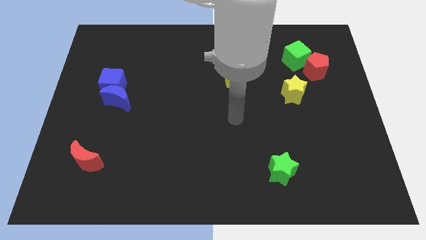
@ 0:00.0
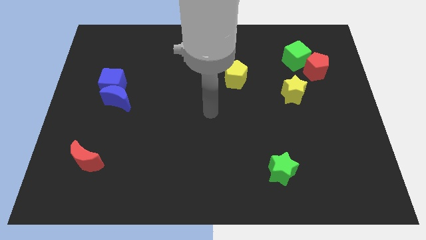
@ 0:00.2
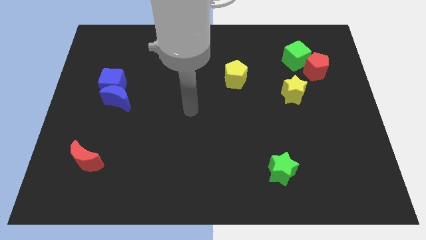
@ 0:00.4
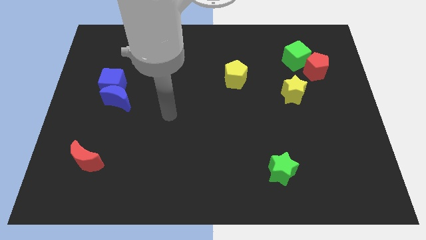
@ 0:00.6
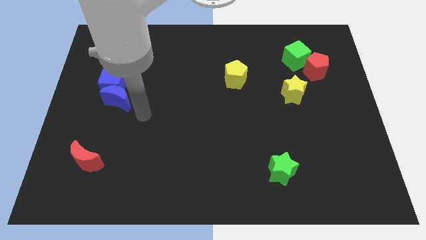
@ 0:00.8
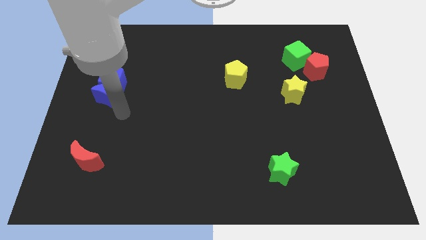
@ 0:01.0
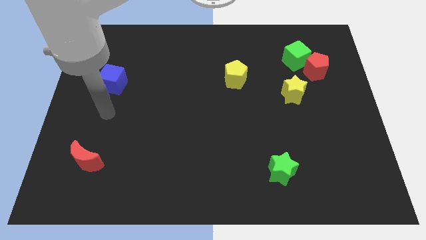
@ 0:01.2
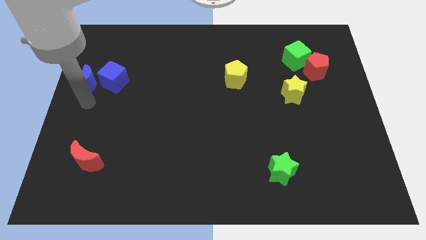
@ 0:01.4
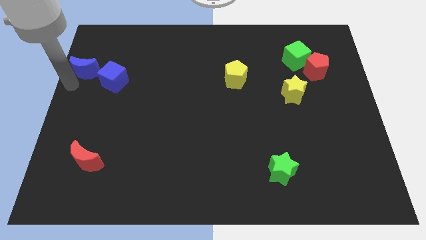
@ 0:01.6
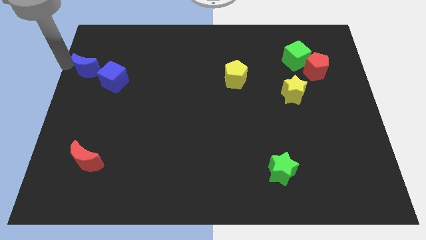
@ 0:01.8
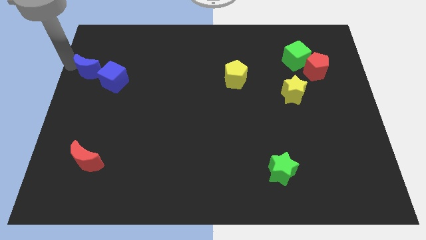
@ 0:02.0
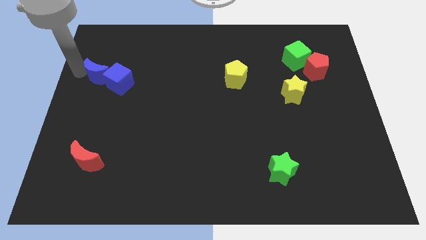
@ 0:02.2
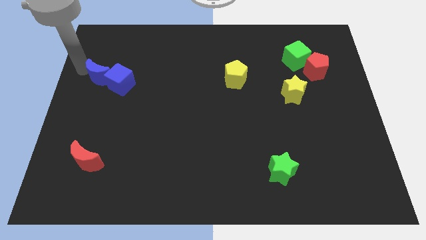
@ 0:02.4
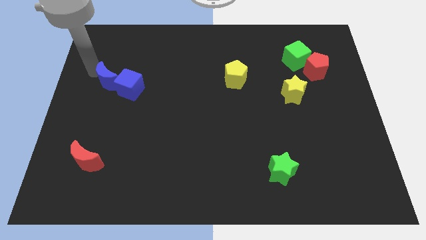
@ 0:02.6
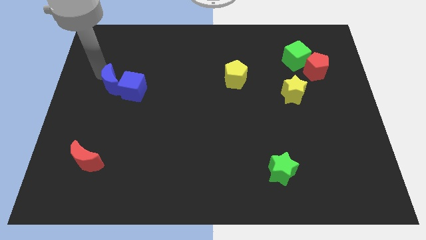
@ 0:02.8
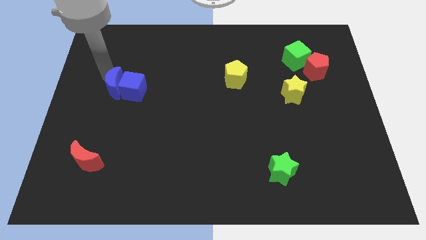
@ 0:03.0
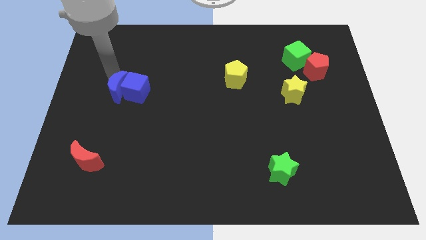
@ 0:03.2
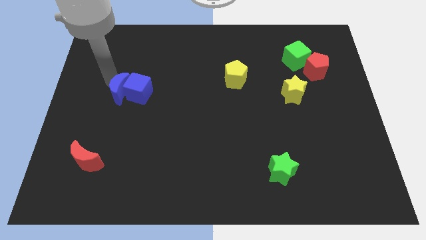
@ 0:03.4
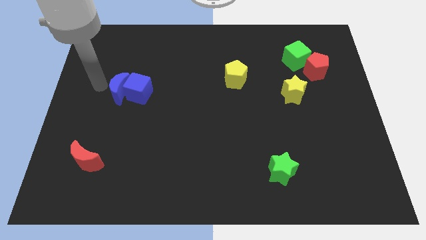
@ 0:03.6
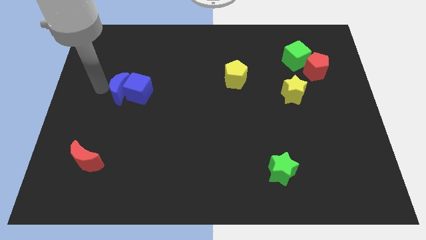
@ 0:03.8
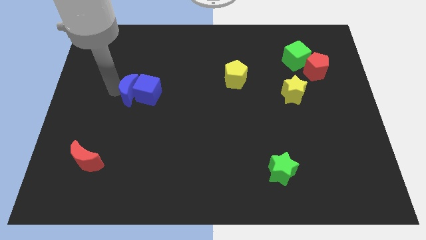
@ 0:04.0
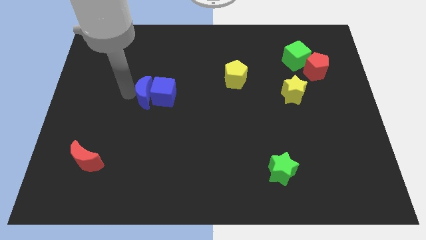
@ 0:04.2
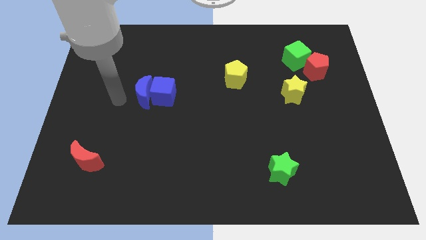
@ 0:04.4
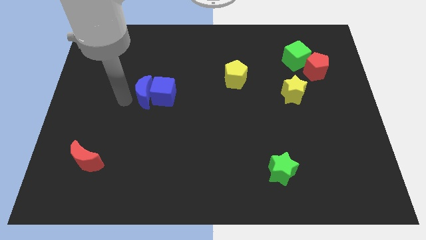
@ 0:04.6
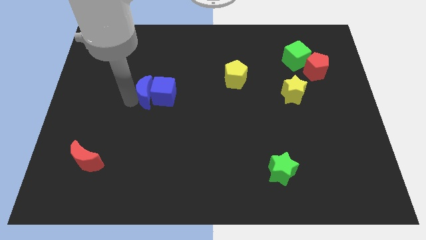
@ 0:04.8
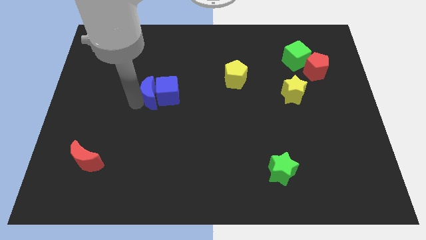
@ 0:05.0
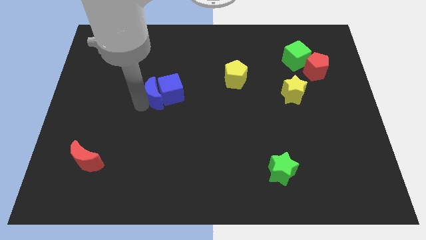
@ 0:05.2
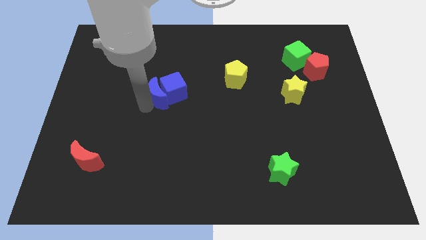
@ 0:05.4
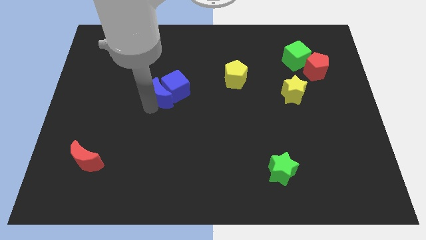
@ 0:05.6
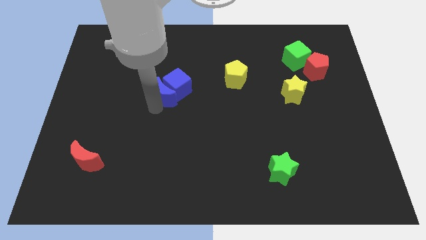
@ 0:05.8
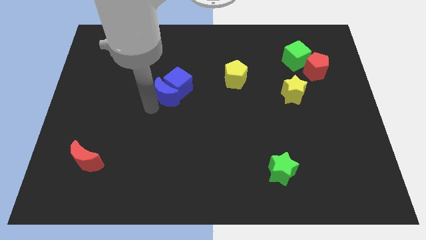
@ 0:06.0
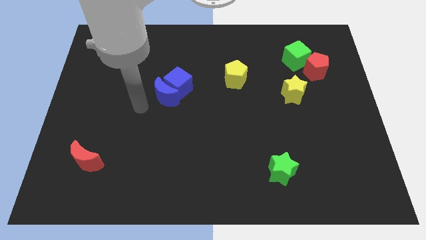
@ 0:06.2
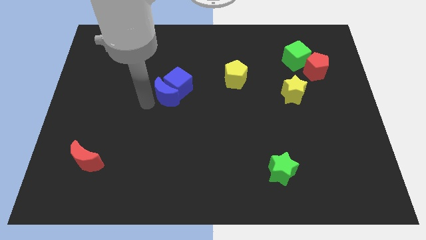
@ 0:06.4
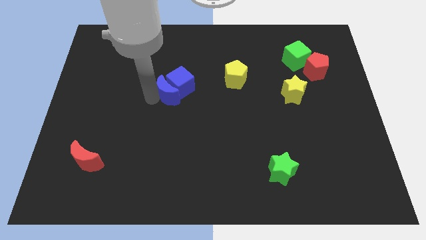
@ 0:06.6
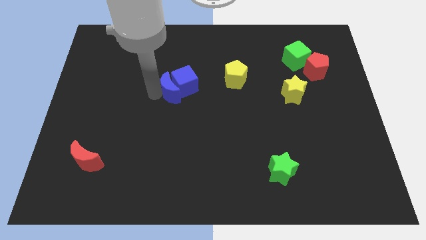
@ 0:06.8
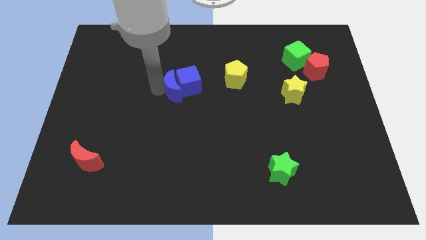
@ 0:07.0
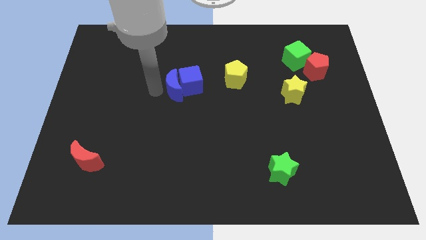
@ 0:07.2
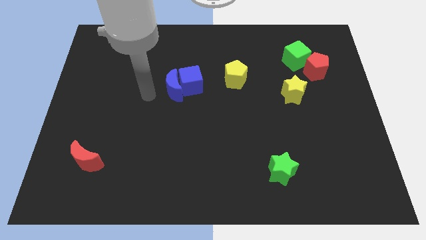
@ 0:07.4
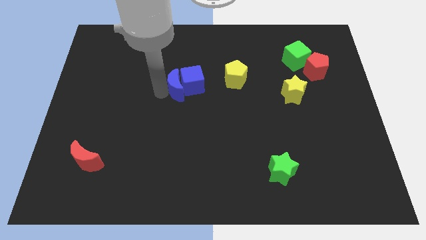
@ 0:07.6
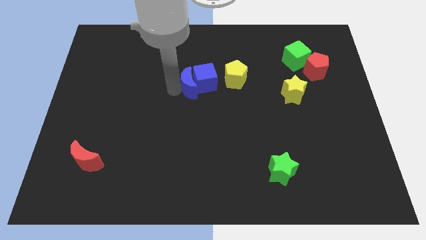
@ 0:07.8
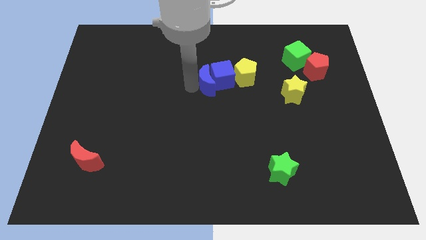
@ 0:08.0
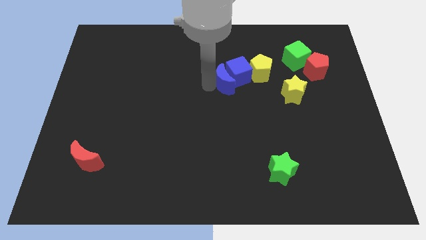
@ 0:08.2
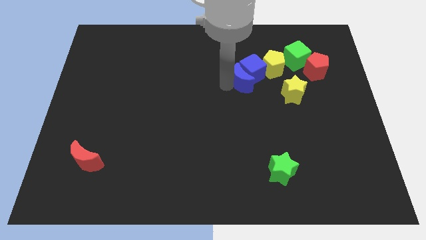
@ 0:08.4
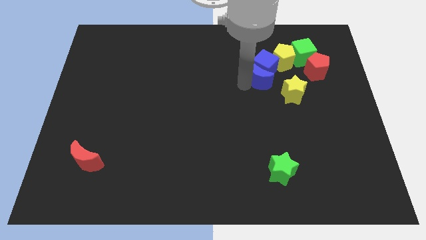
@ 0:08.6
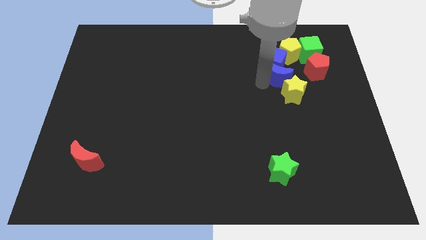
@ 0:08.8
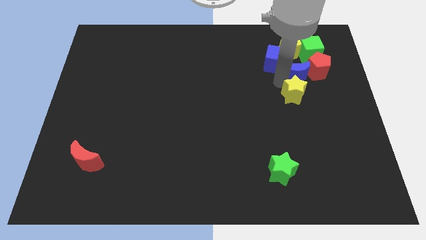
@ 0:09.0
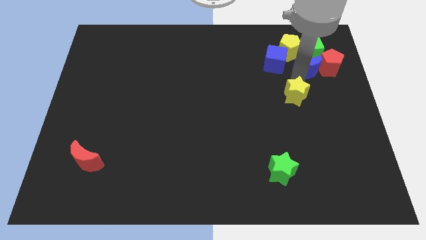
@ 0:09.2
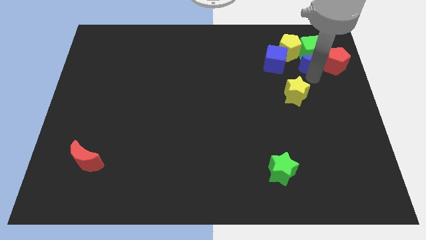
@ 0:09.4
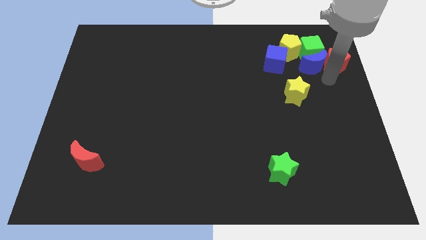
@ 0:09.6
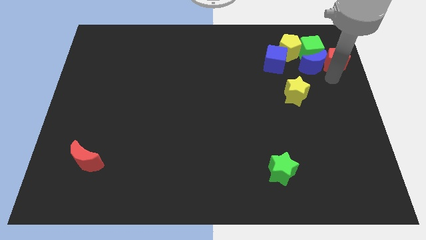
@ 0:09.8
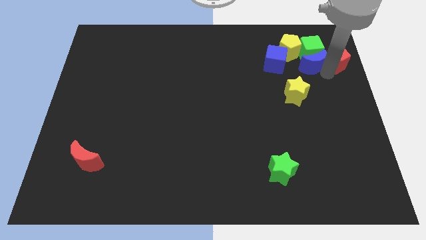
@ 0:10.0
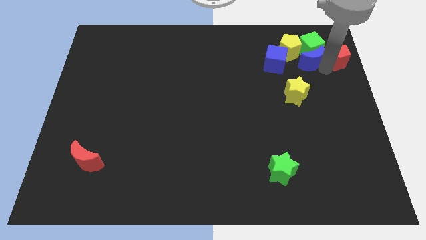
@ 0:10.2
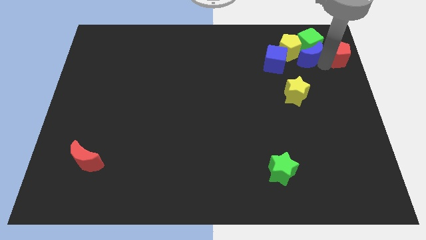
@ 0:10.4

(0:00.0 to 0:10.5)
push the blue moon to the yellow pentagon

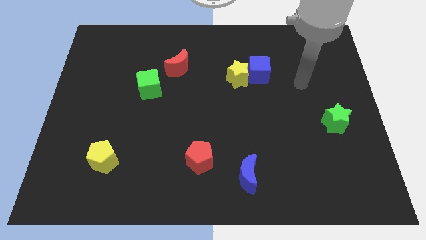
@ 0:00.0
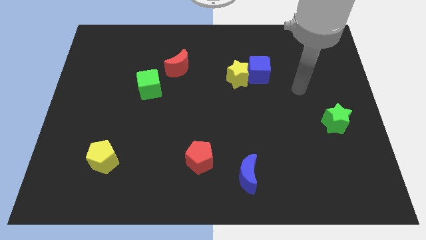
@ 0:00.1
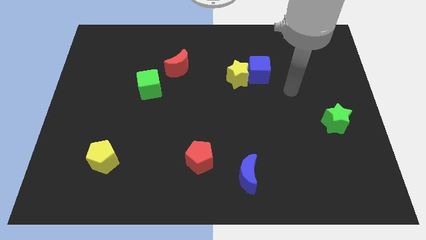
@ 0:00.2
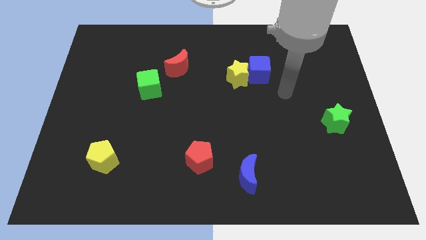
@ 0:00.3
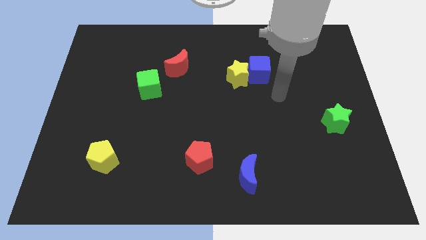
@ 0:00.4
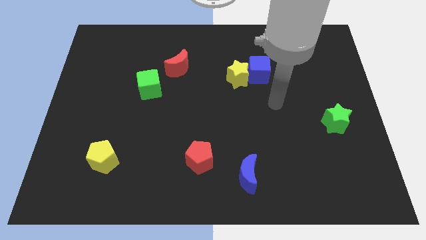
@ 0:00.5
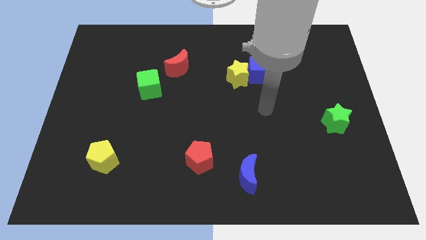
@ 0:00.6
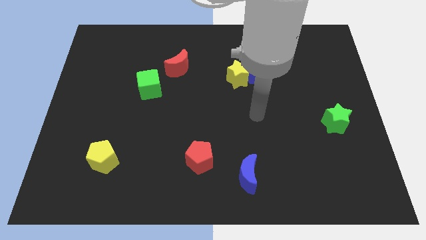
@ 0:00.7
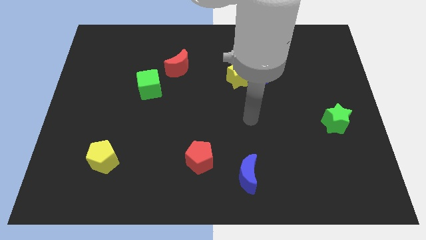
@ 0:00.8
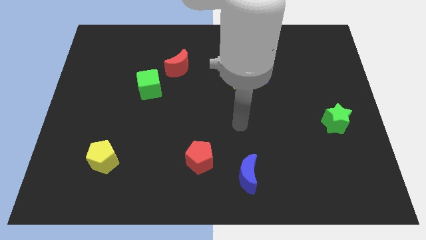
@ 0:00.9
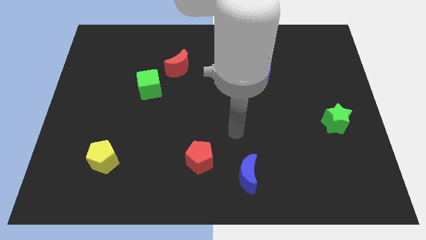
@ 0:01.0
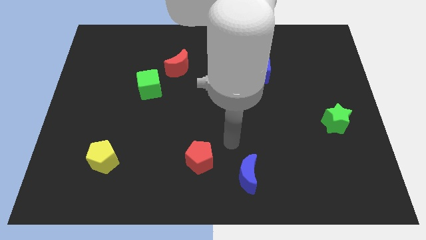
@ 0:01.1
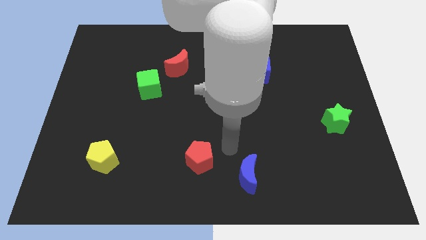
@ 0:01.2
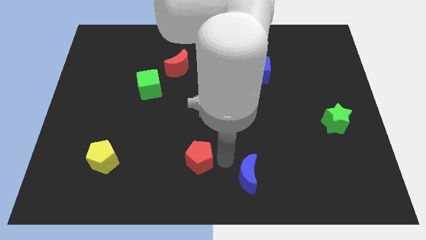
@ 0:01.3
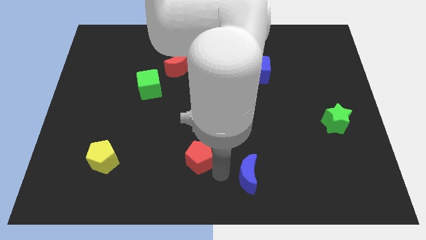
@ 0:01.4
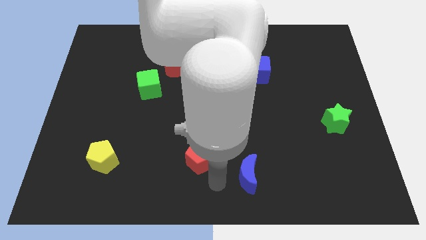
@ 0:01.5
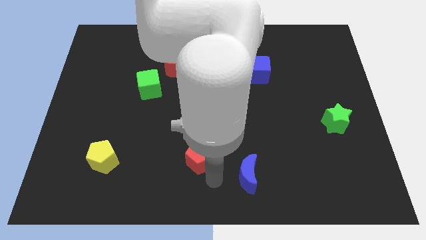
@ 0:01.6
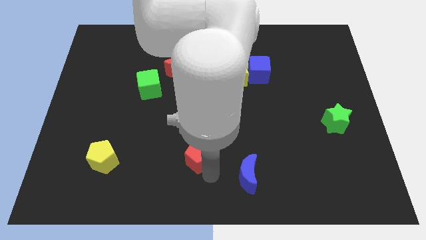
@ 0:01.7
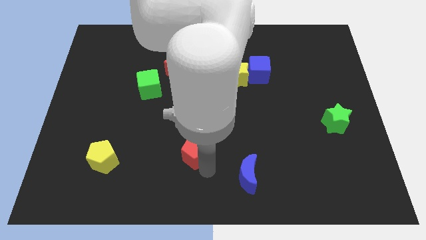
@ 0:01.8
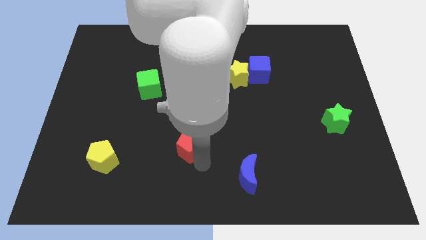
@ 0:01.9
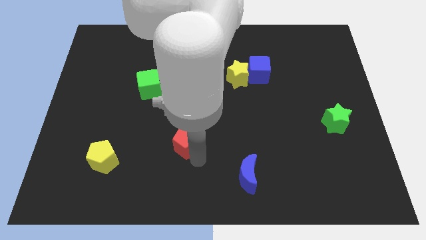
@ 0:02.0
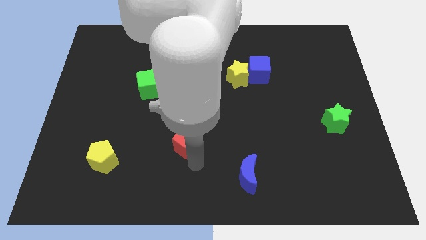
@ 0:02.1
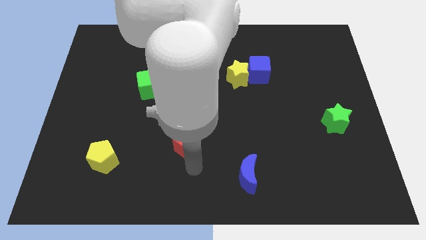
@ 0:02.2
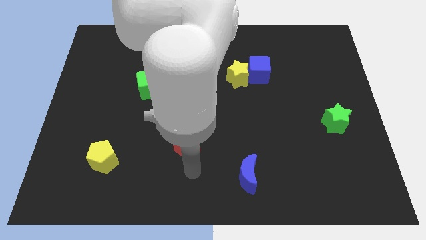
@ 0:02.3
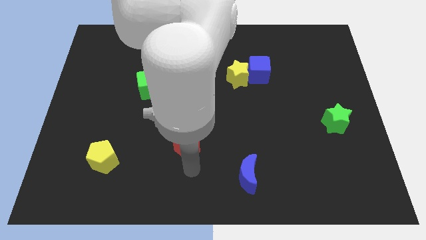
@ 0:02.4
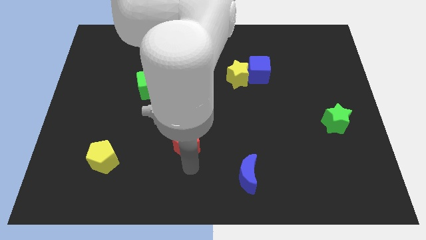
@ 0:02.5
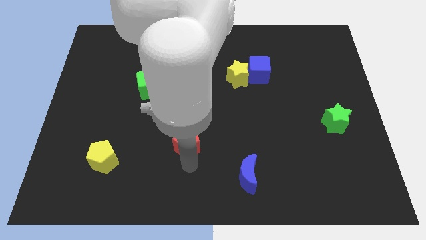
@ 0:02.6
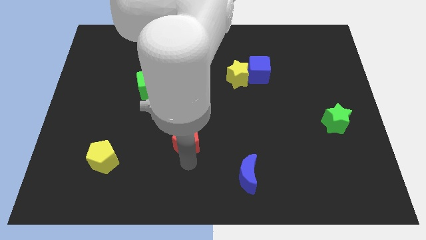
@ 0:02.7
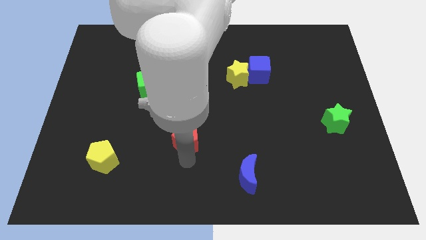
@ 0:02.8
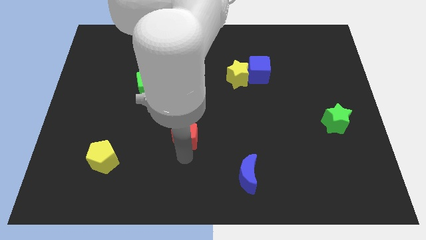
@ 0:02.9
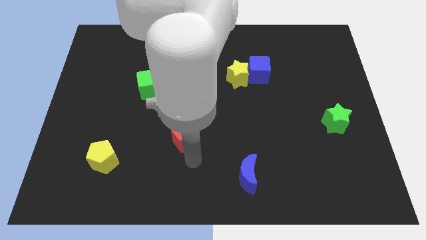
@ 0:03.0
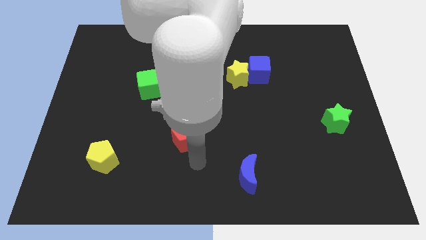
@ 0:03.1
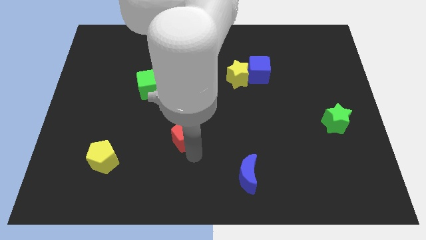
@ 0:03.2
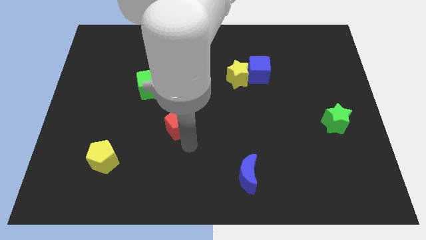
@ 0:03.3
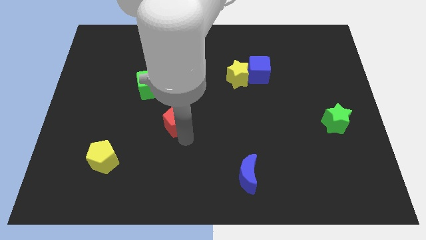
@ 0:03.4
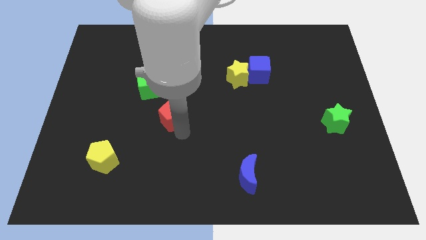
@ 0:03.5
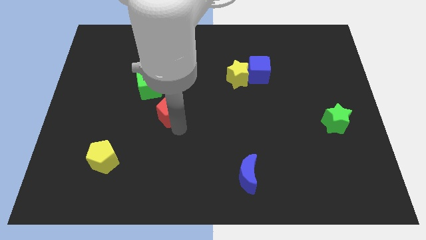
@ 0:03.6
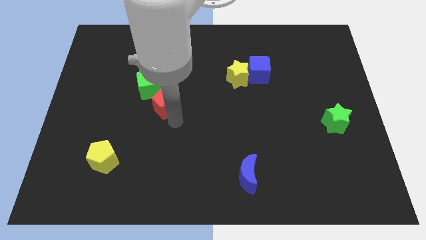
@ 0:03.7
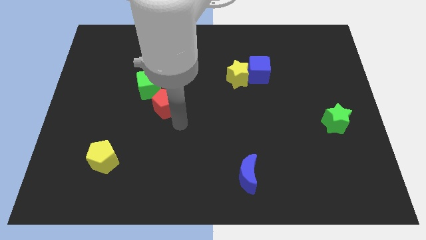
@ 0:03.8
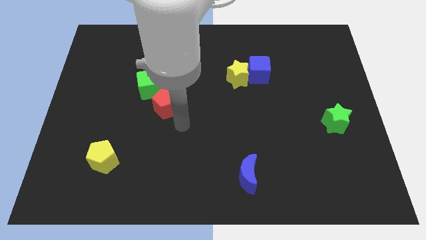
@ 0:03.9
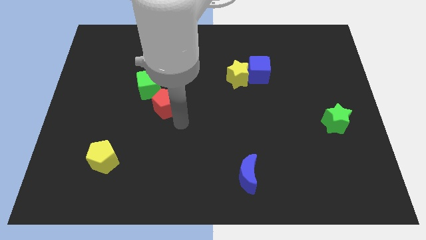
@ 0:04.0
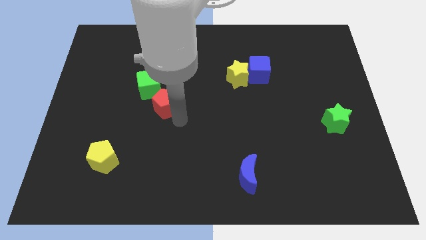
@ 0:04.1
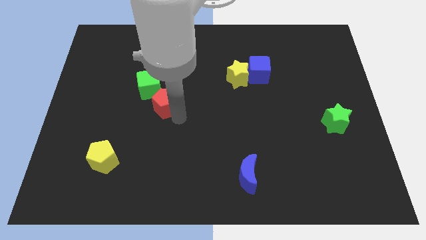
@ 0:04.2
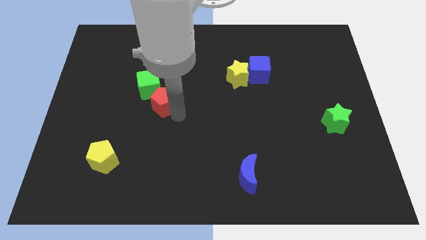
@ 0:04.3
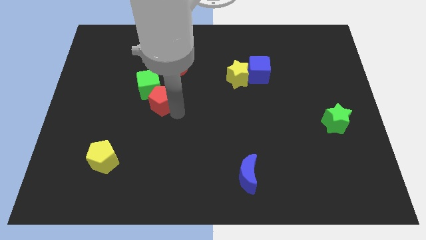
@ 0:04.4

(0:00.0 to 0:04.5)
move the red pentagon close to the green cube
